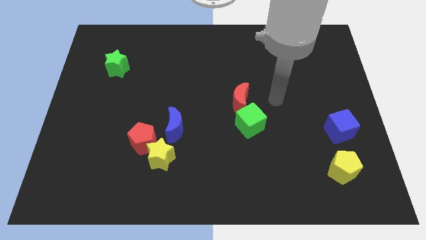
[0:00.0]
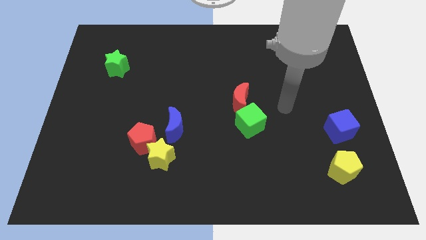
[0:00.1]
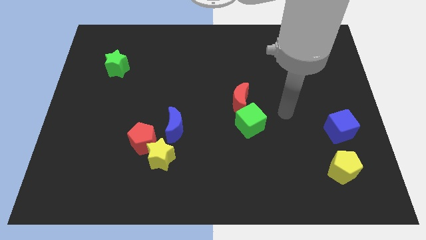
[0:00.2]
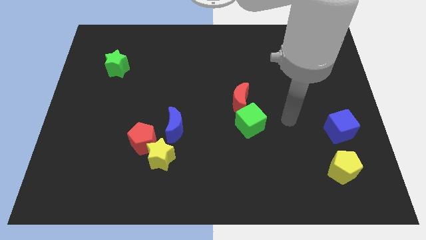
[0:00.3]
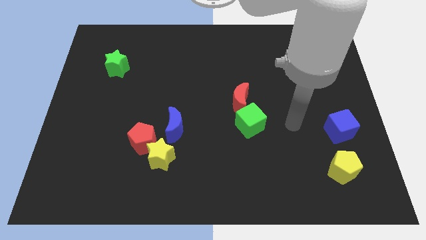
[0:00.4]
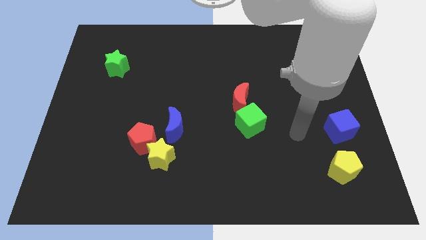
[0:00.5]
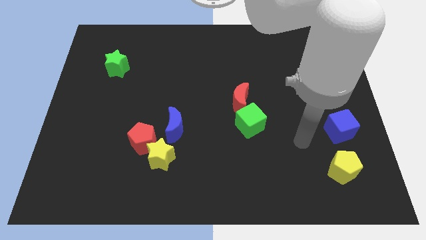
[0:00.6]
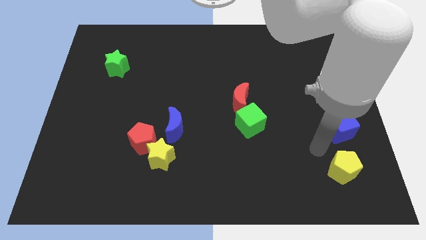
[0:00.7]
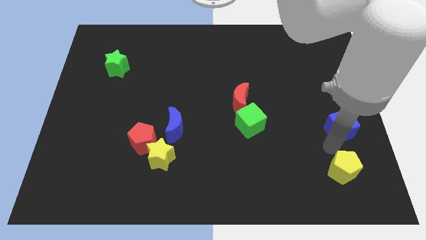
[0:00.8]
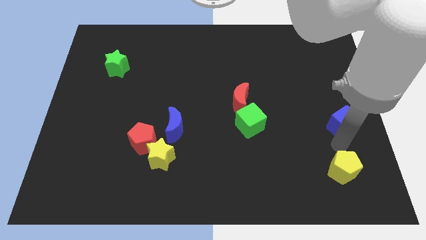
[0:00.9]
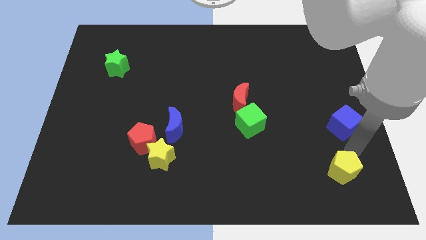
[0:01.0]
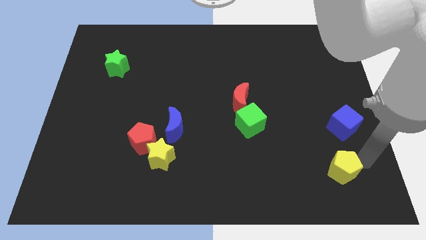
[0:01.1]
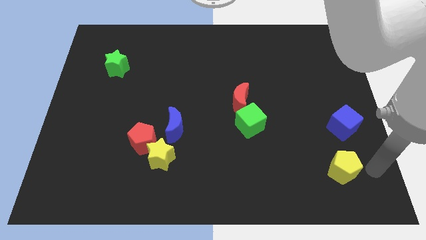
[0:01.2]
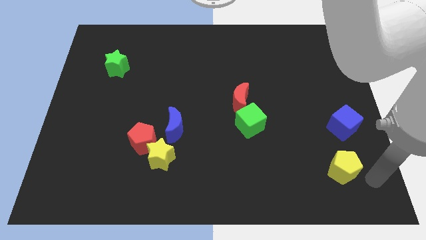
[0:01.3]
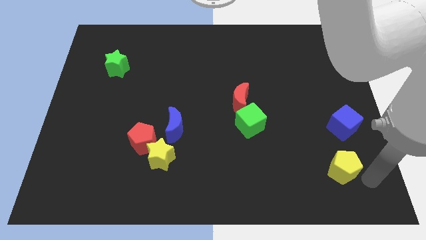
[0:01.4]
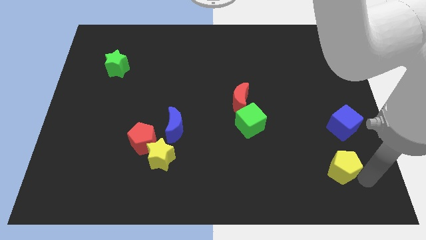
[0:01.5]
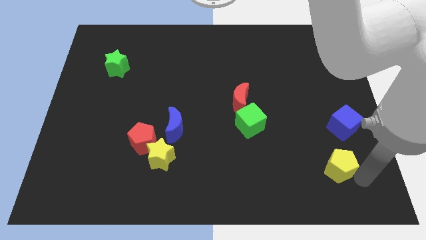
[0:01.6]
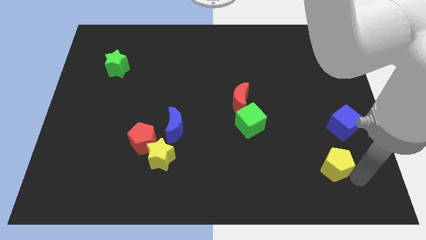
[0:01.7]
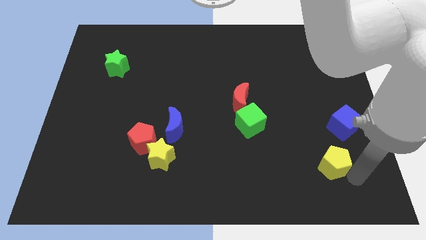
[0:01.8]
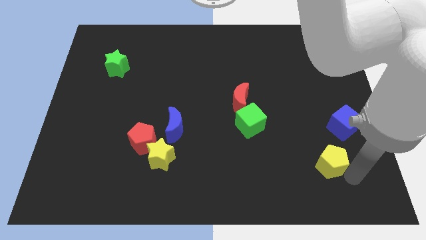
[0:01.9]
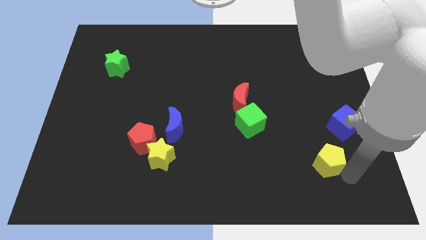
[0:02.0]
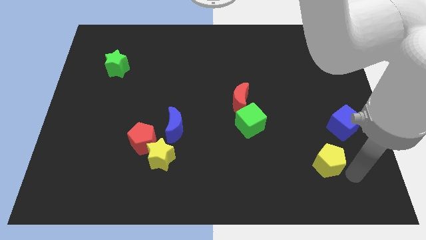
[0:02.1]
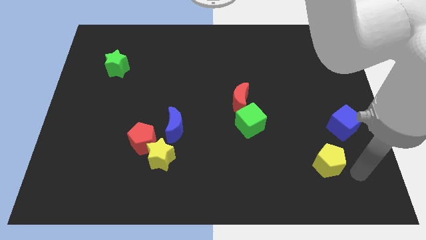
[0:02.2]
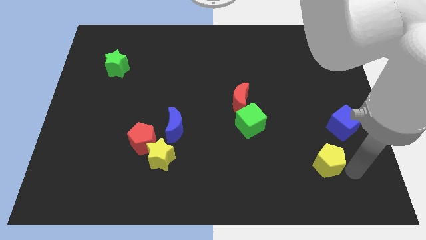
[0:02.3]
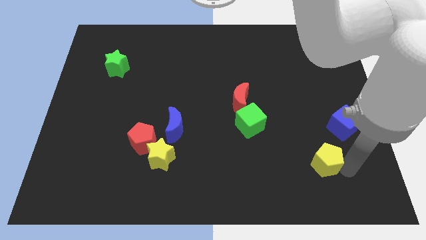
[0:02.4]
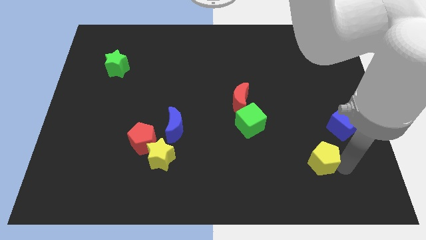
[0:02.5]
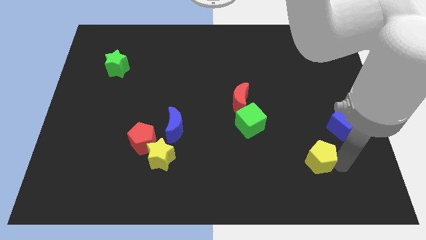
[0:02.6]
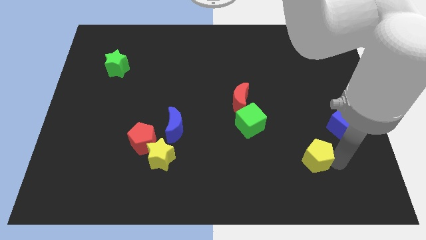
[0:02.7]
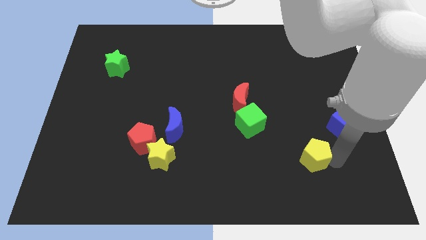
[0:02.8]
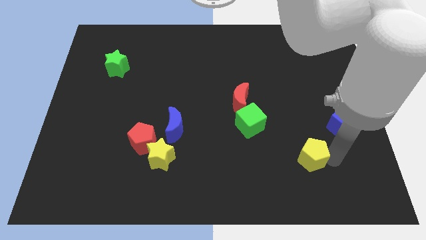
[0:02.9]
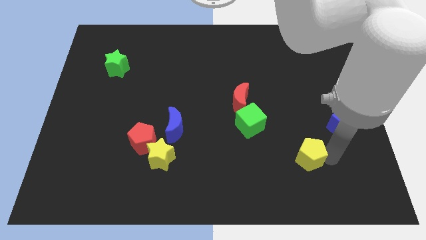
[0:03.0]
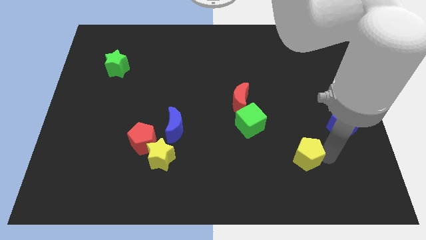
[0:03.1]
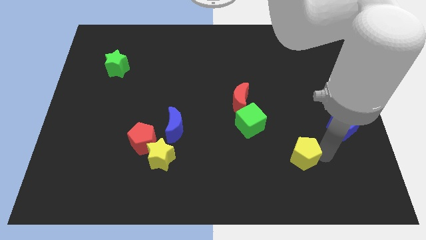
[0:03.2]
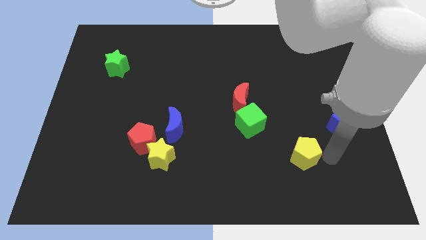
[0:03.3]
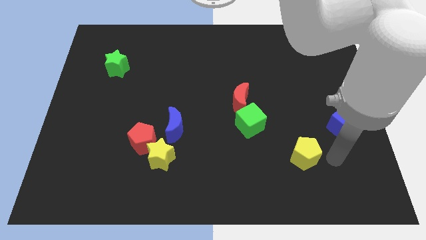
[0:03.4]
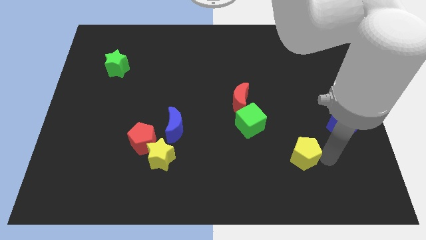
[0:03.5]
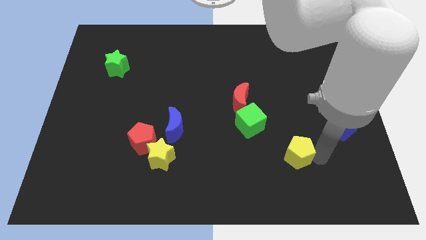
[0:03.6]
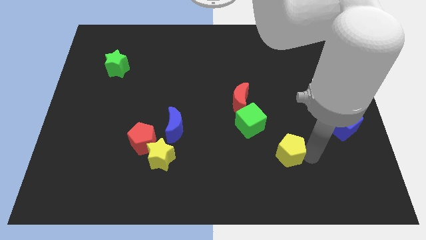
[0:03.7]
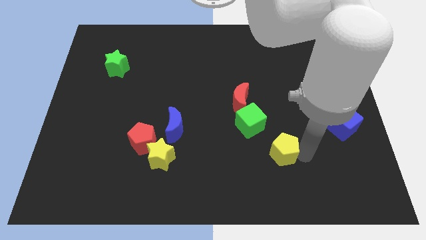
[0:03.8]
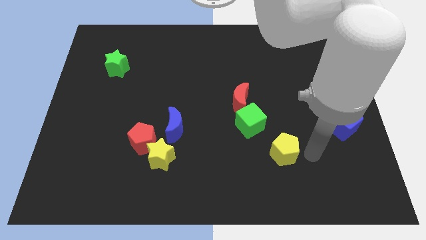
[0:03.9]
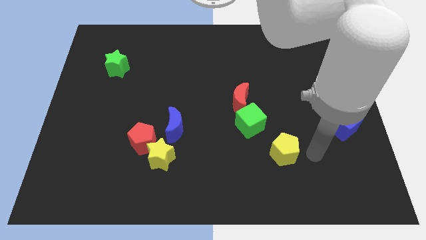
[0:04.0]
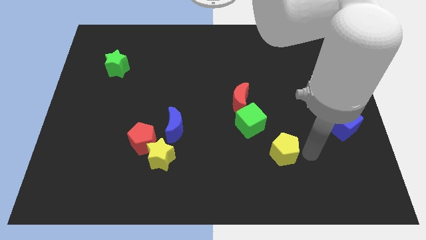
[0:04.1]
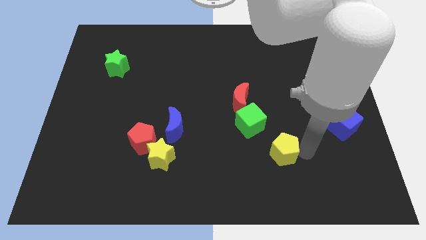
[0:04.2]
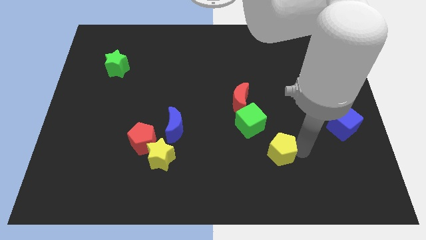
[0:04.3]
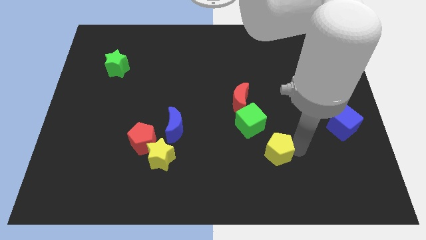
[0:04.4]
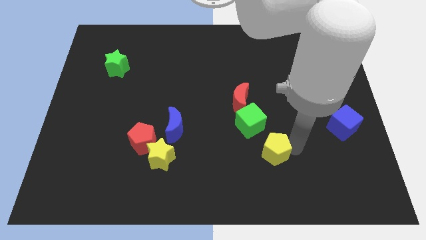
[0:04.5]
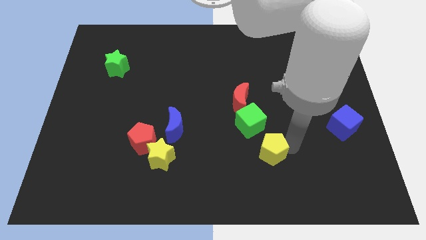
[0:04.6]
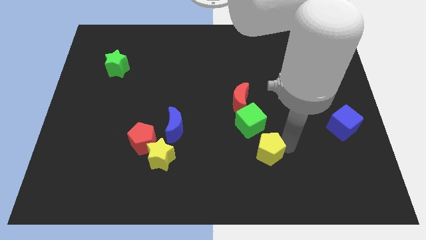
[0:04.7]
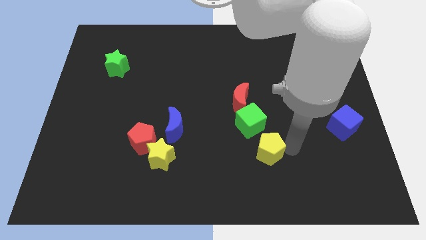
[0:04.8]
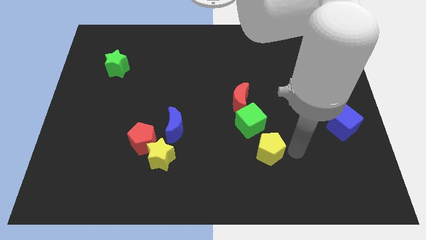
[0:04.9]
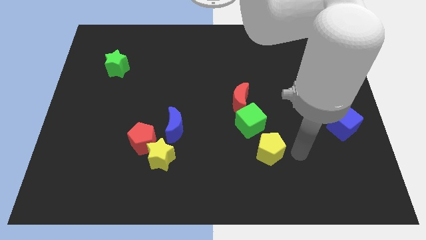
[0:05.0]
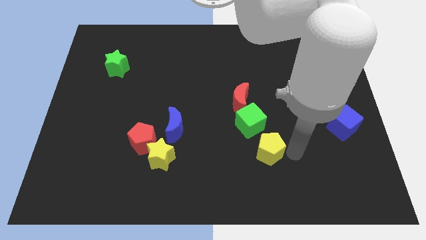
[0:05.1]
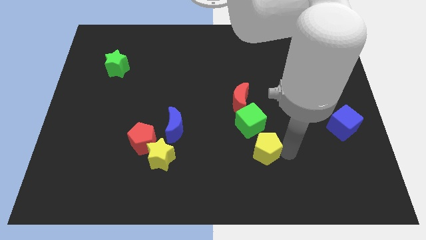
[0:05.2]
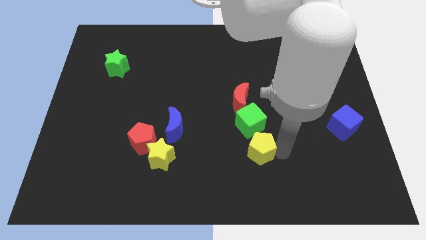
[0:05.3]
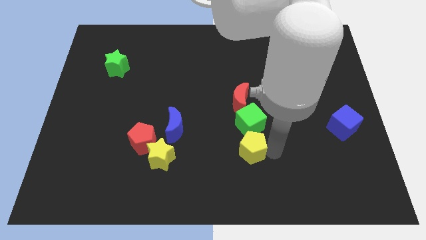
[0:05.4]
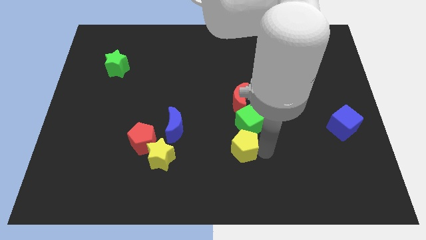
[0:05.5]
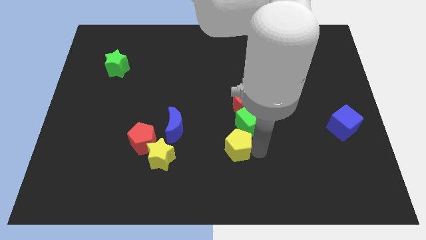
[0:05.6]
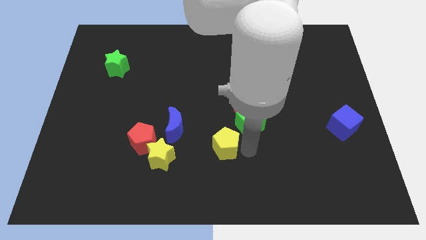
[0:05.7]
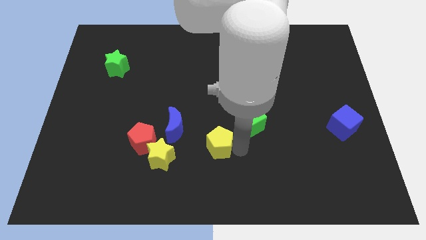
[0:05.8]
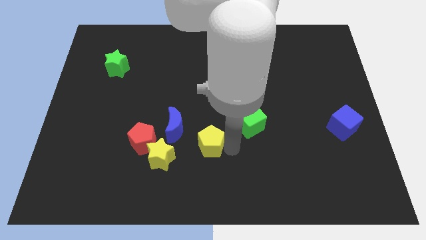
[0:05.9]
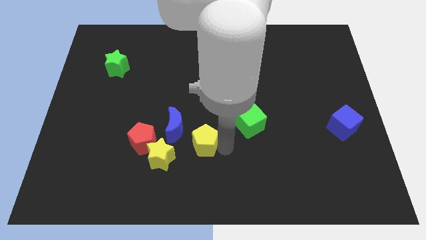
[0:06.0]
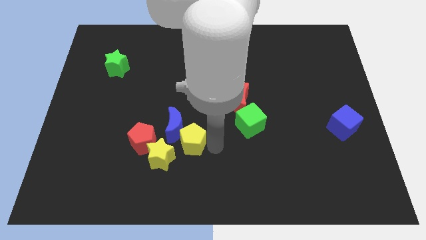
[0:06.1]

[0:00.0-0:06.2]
move the yellow pentagon next to the blue moon

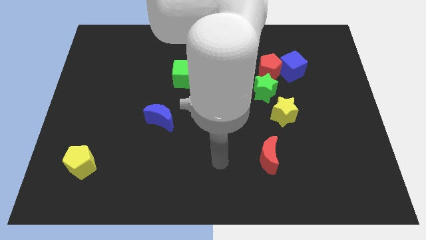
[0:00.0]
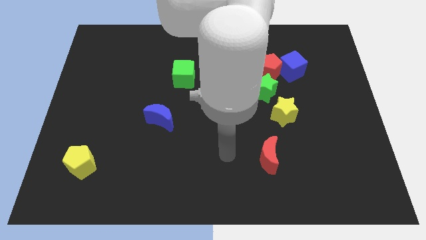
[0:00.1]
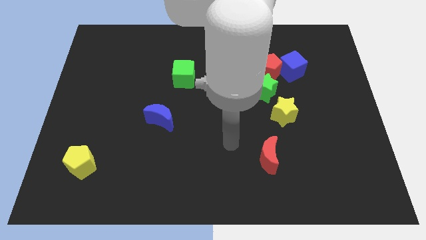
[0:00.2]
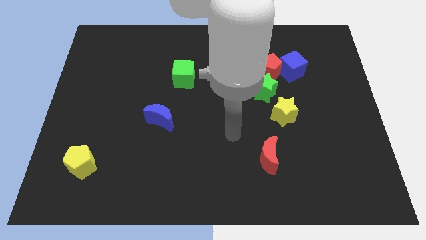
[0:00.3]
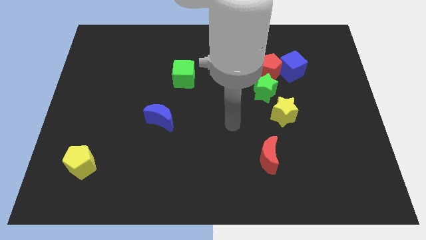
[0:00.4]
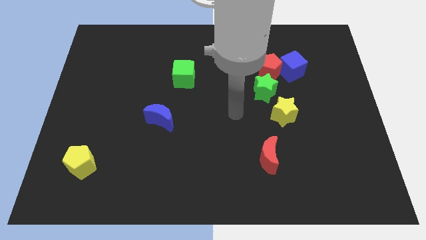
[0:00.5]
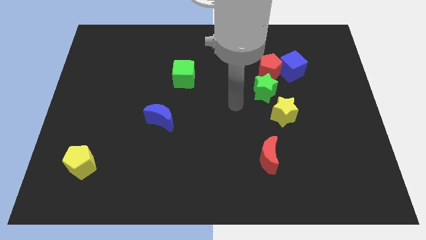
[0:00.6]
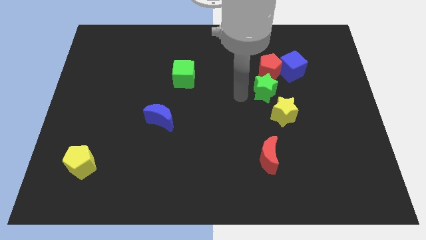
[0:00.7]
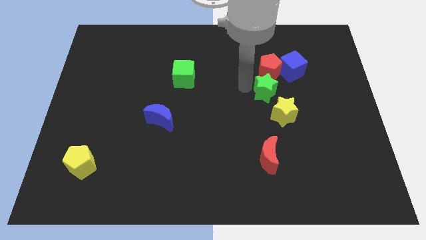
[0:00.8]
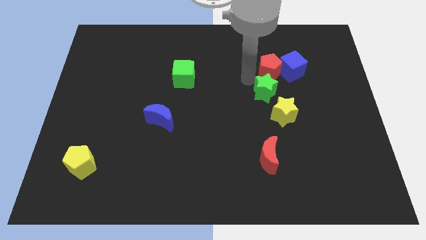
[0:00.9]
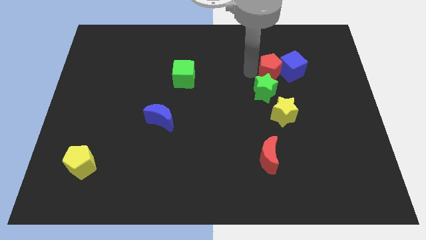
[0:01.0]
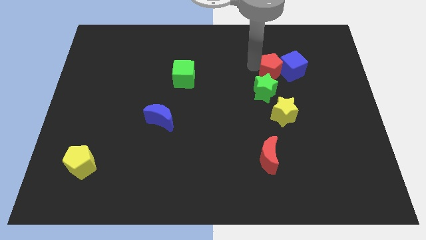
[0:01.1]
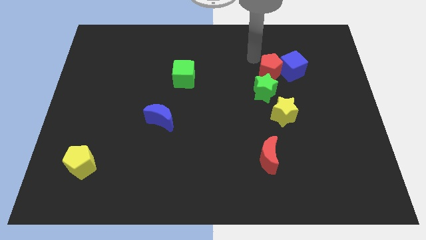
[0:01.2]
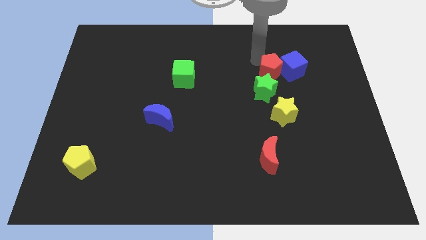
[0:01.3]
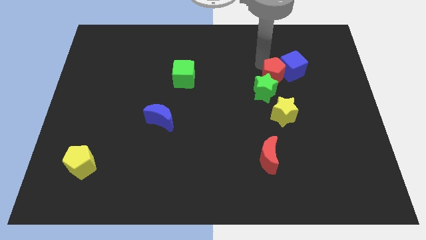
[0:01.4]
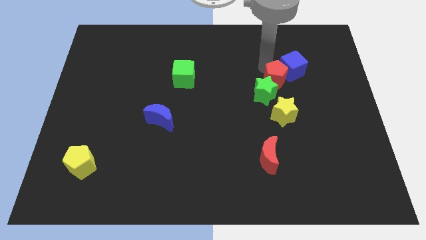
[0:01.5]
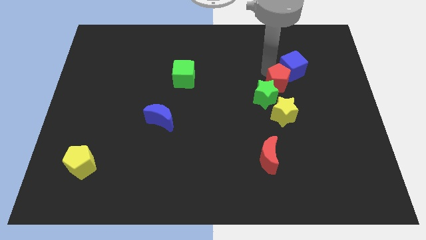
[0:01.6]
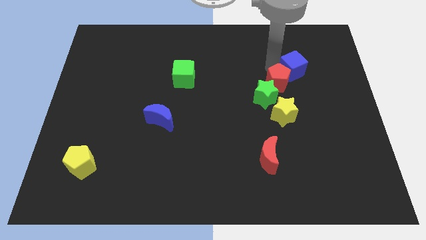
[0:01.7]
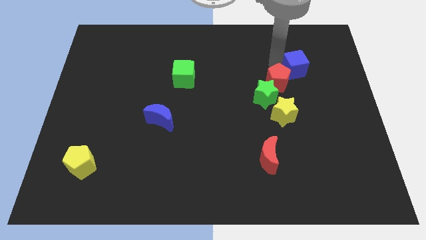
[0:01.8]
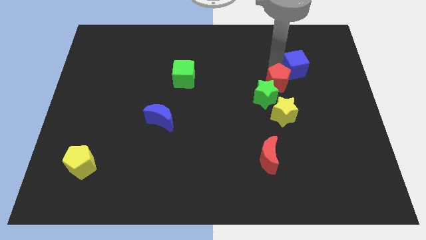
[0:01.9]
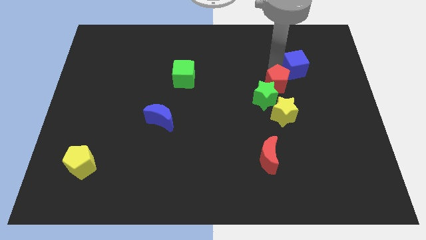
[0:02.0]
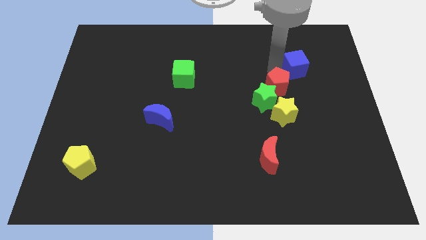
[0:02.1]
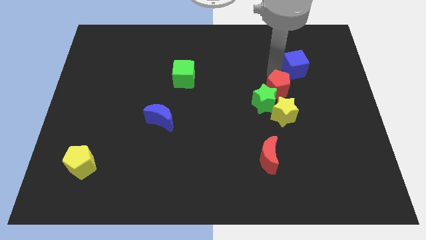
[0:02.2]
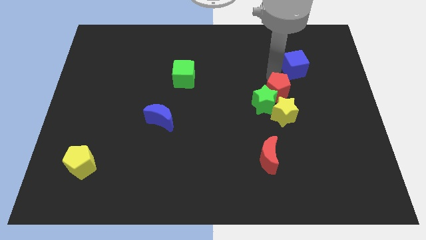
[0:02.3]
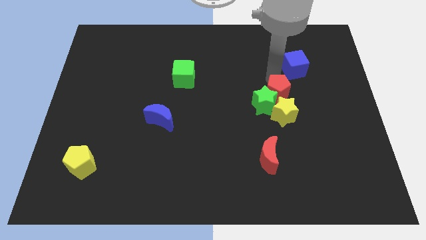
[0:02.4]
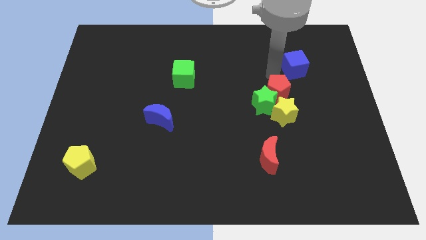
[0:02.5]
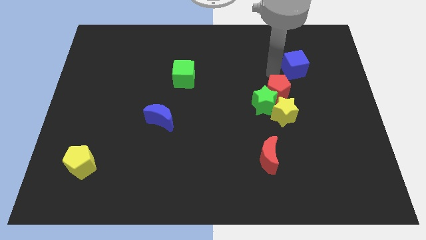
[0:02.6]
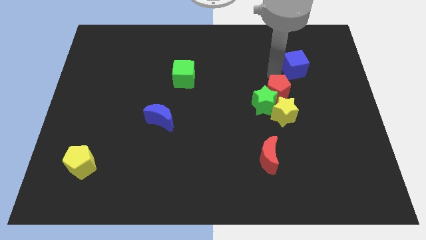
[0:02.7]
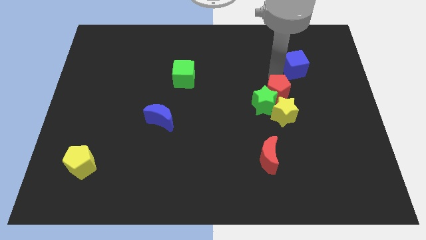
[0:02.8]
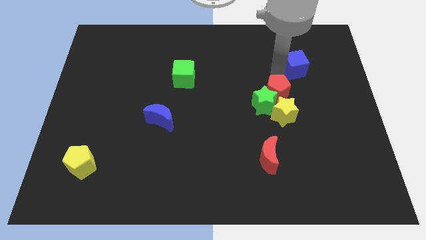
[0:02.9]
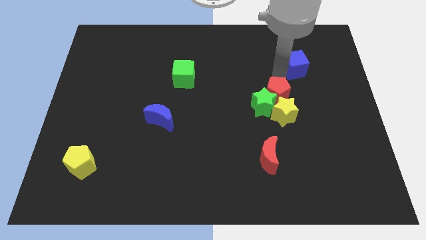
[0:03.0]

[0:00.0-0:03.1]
push the red pentagon towards the yellow star
